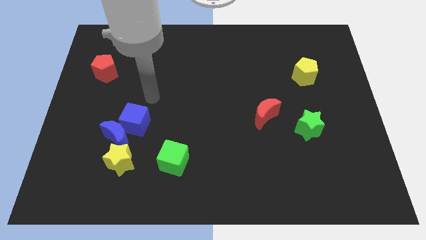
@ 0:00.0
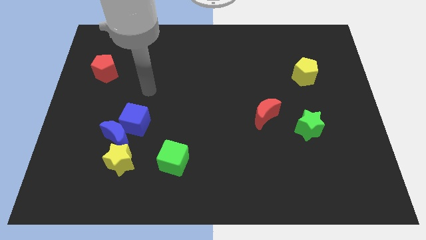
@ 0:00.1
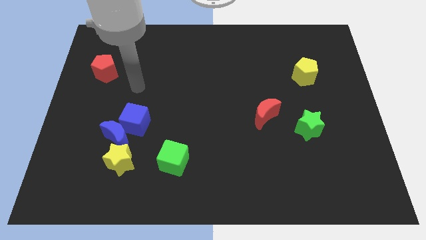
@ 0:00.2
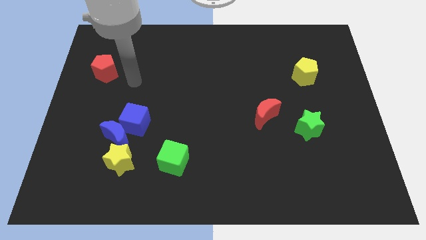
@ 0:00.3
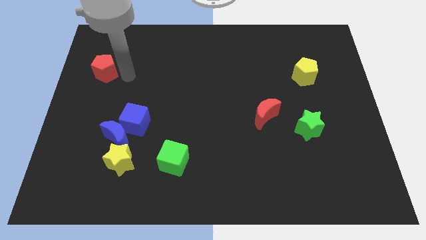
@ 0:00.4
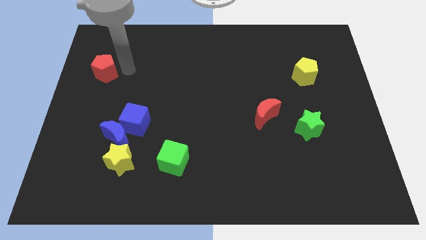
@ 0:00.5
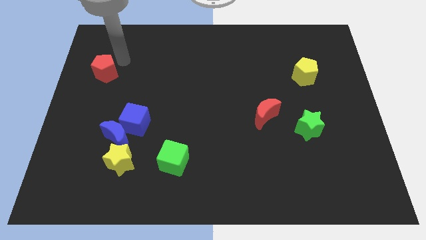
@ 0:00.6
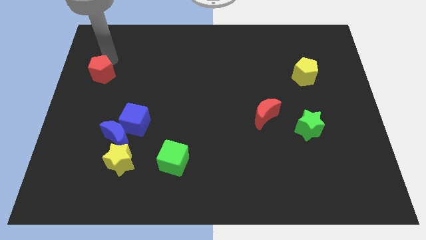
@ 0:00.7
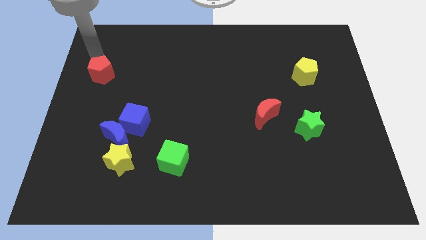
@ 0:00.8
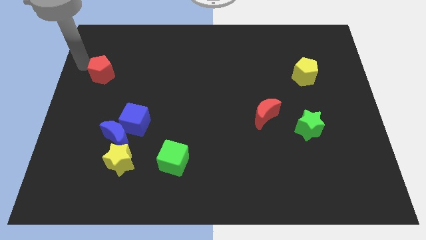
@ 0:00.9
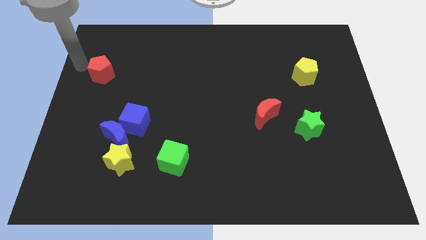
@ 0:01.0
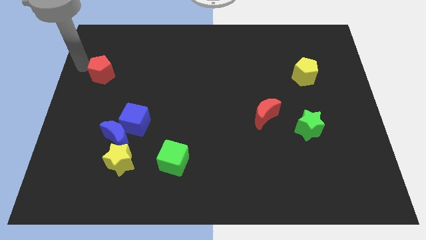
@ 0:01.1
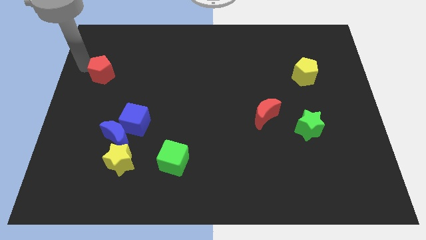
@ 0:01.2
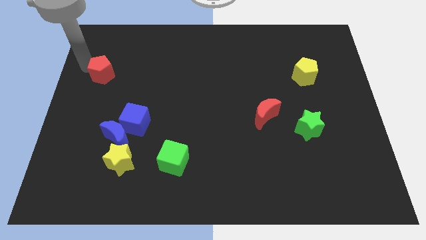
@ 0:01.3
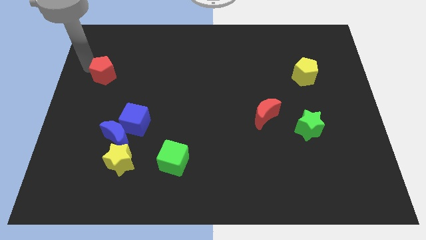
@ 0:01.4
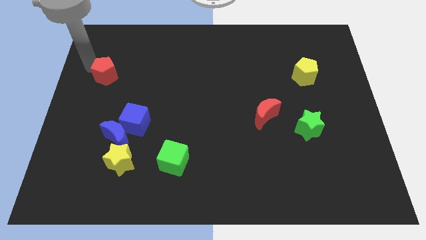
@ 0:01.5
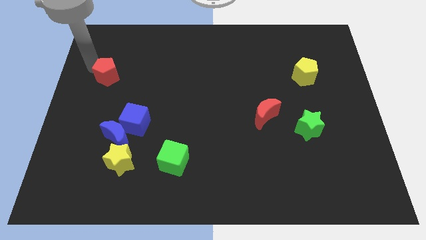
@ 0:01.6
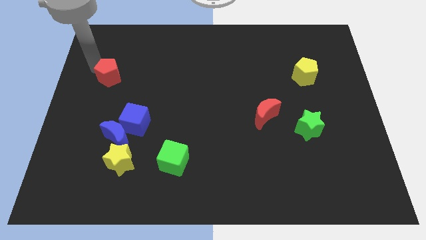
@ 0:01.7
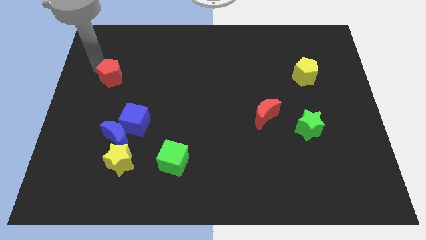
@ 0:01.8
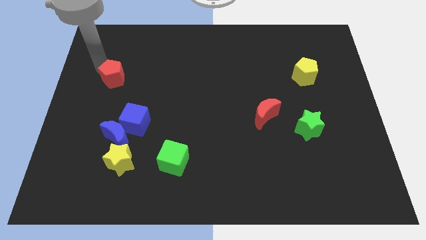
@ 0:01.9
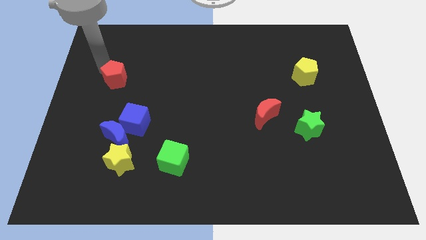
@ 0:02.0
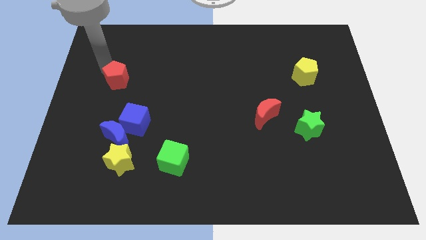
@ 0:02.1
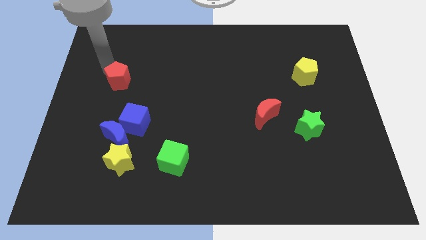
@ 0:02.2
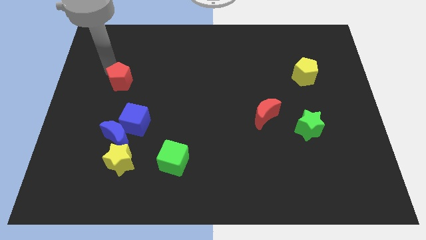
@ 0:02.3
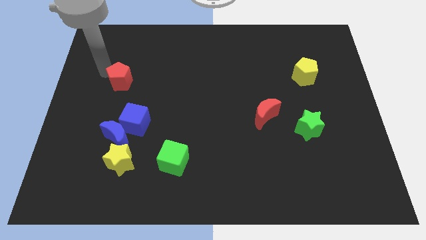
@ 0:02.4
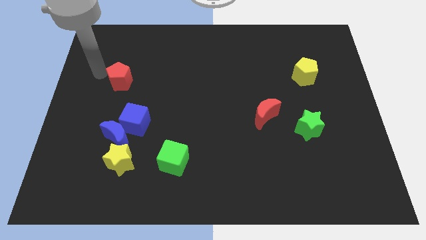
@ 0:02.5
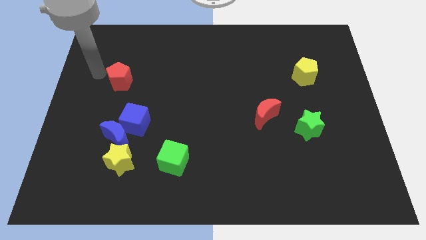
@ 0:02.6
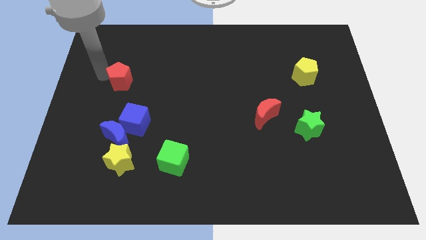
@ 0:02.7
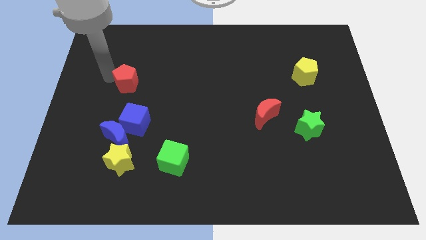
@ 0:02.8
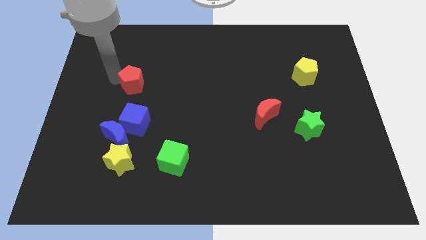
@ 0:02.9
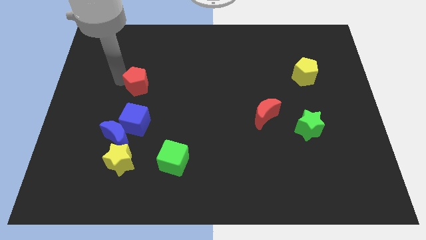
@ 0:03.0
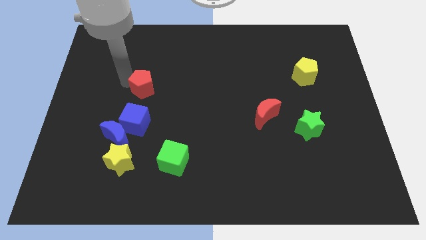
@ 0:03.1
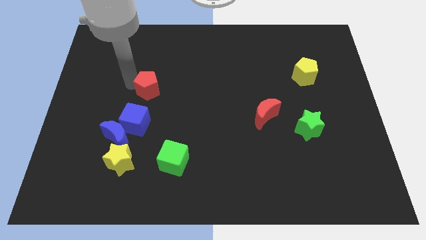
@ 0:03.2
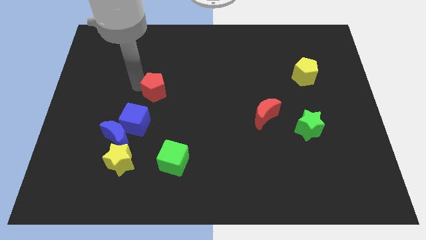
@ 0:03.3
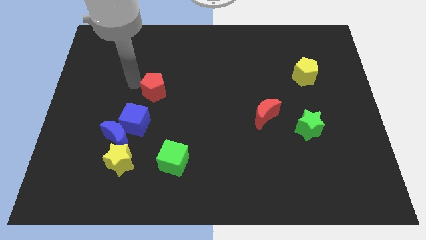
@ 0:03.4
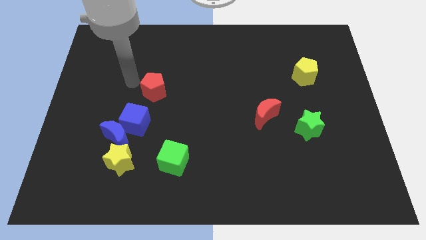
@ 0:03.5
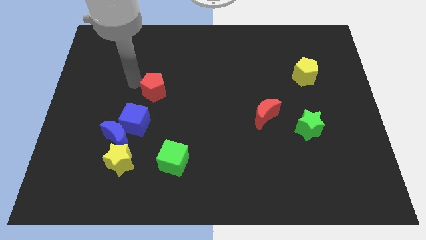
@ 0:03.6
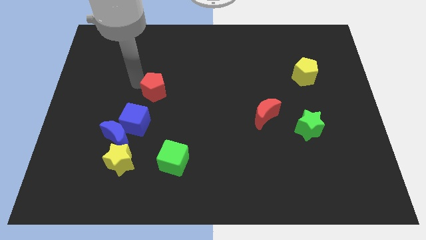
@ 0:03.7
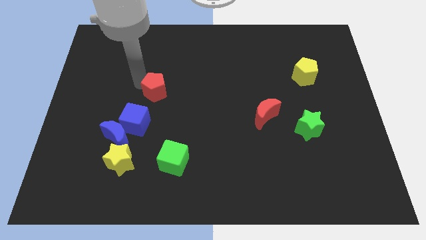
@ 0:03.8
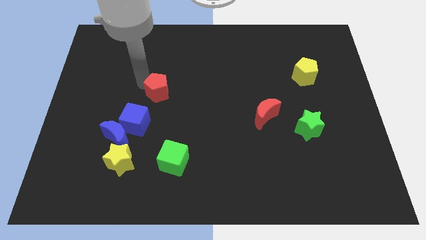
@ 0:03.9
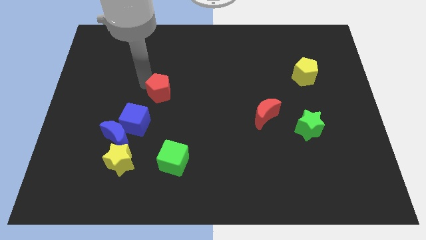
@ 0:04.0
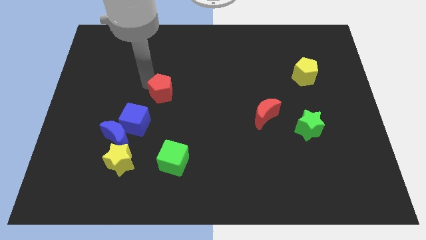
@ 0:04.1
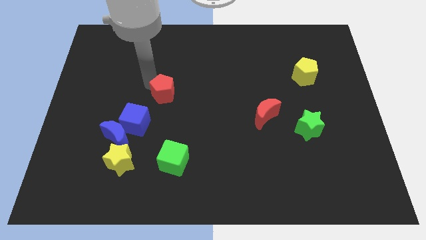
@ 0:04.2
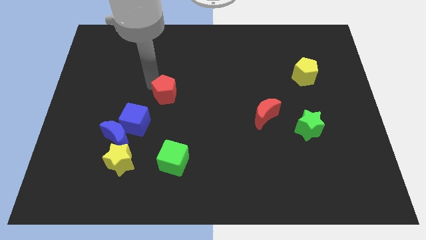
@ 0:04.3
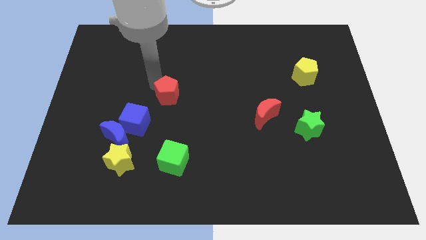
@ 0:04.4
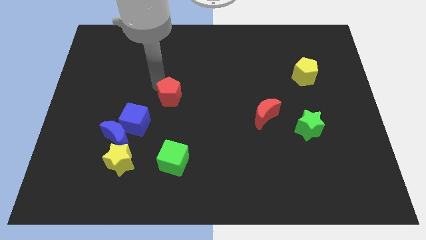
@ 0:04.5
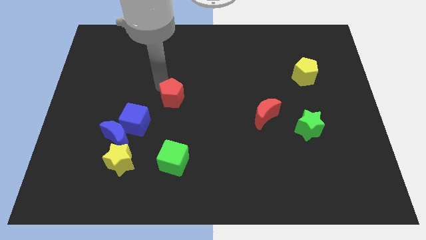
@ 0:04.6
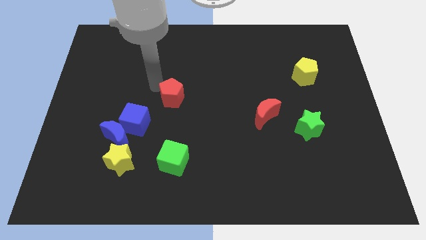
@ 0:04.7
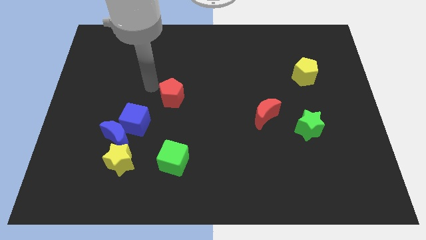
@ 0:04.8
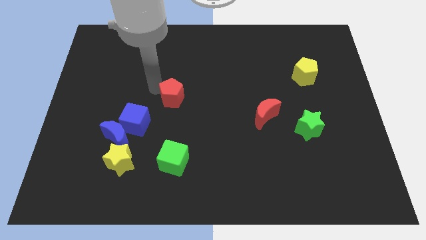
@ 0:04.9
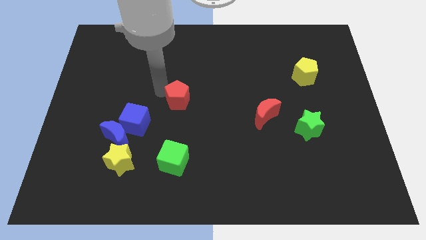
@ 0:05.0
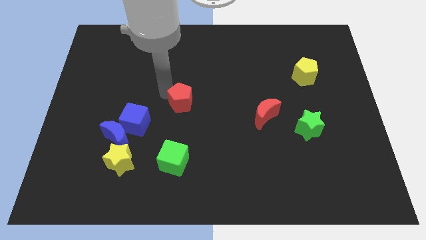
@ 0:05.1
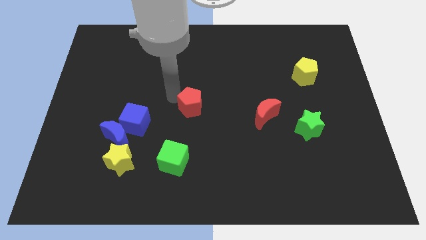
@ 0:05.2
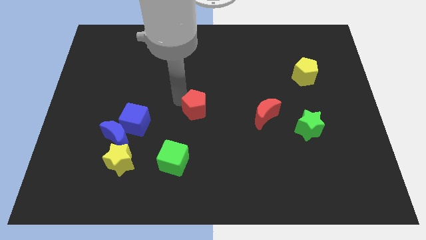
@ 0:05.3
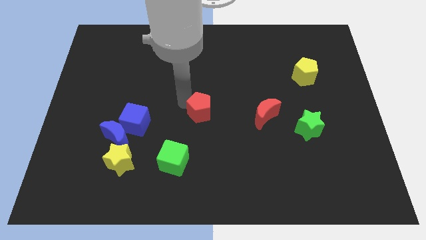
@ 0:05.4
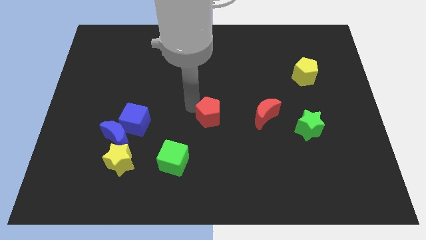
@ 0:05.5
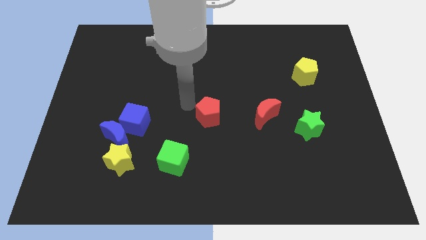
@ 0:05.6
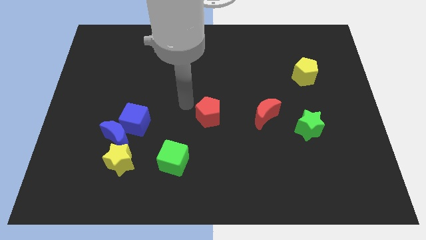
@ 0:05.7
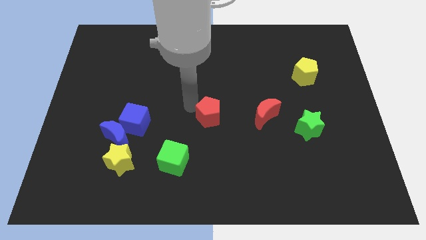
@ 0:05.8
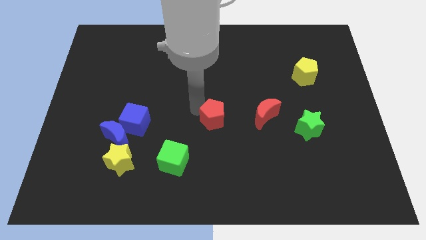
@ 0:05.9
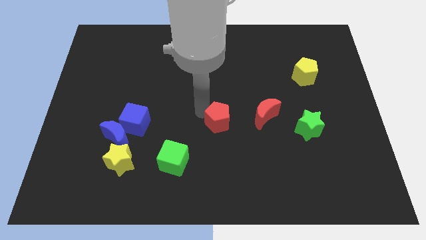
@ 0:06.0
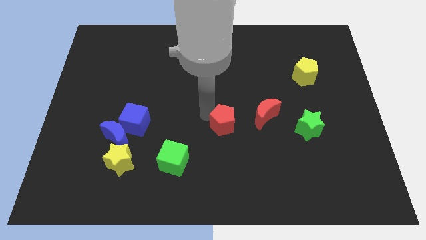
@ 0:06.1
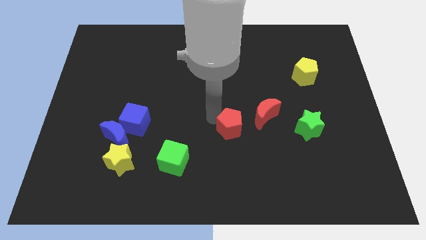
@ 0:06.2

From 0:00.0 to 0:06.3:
push the red pentagon diagonally down and to the left of the red moon

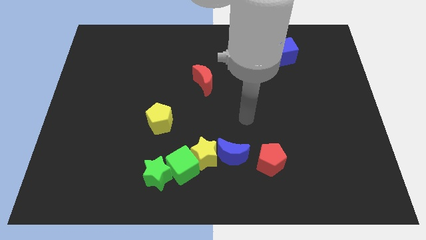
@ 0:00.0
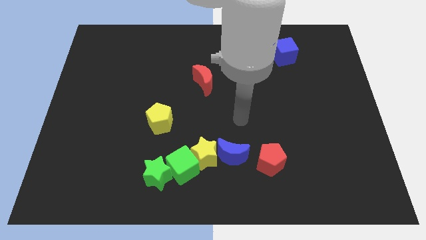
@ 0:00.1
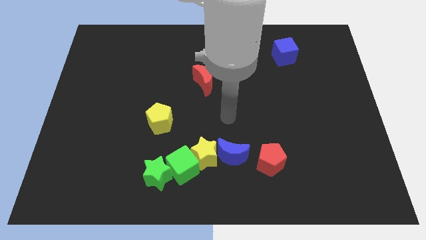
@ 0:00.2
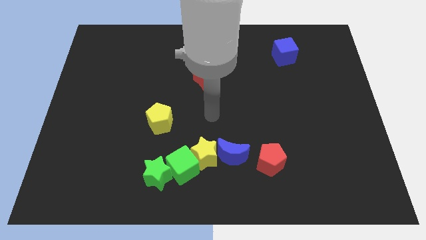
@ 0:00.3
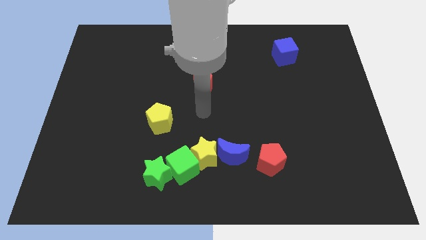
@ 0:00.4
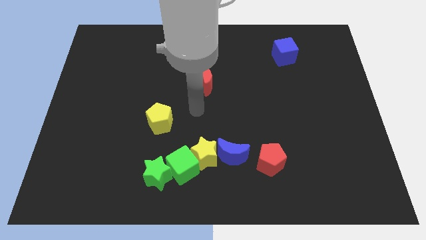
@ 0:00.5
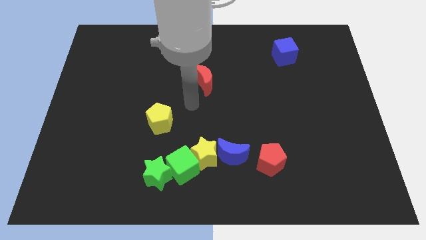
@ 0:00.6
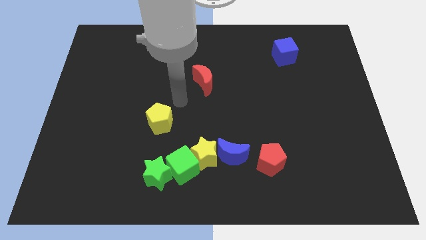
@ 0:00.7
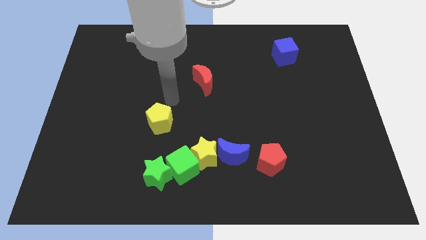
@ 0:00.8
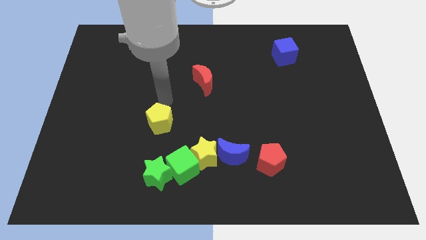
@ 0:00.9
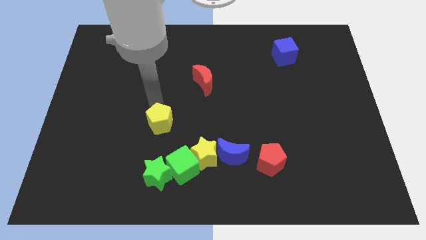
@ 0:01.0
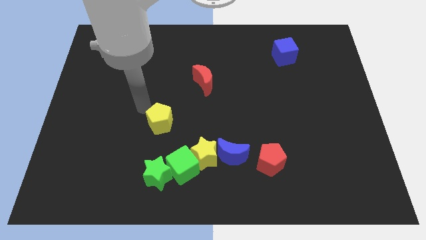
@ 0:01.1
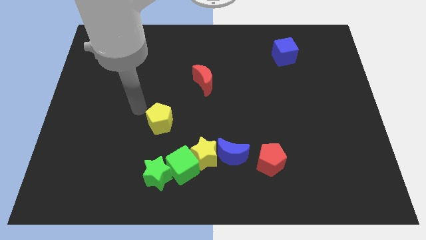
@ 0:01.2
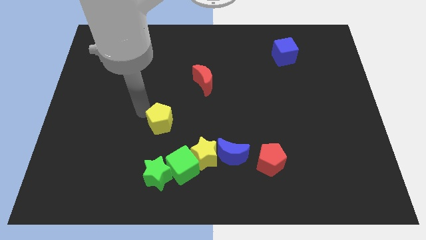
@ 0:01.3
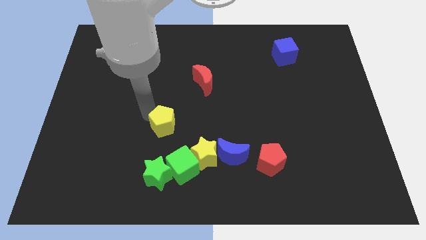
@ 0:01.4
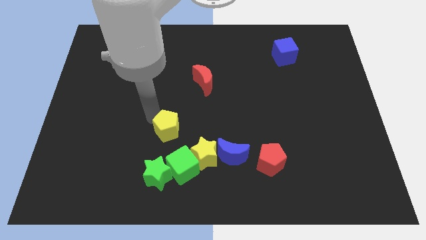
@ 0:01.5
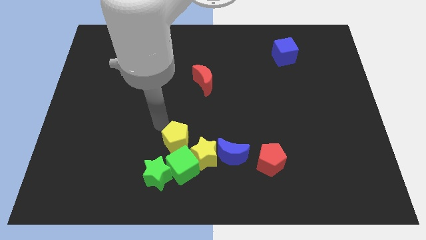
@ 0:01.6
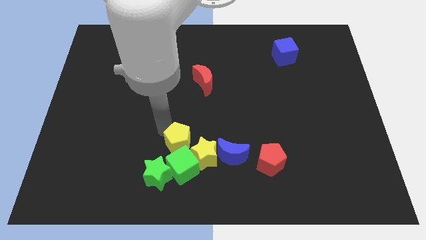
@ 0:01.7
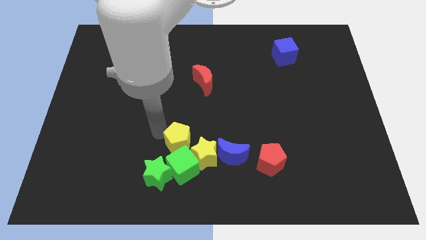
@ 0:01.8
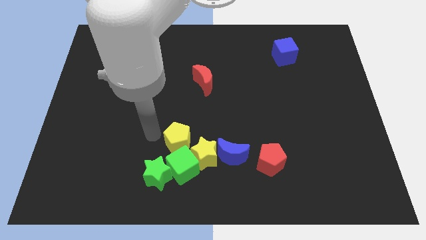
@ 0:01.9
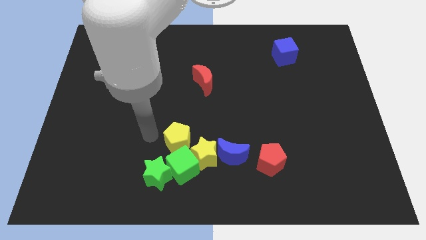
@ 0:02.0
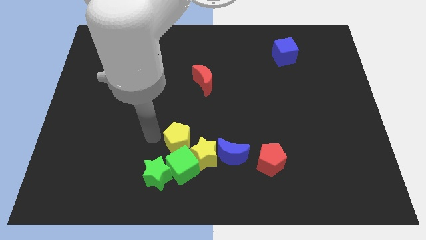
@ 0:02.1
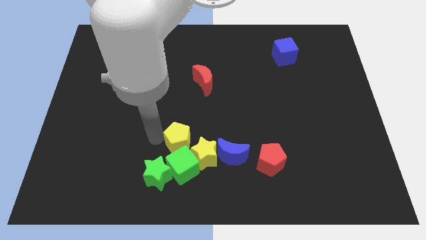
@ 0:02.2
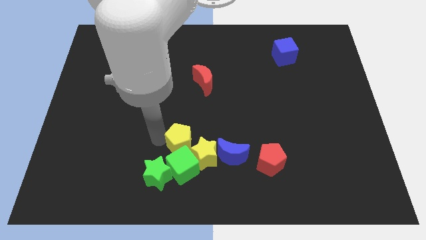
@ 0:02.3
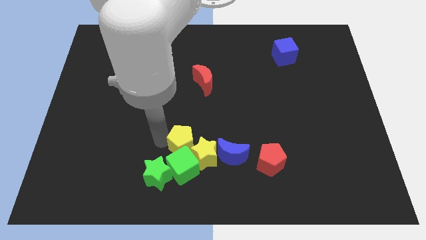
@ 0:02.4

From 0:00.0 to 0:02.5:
slide the yellow pentagon to the top right of the green cube
